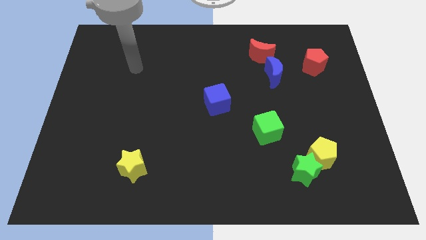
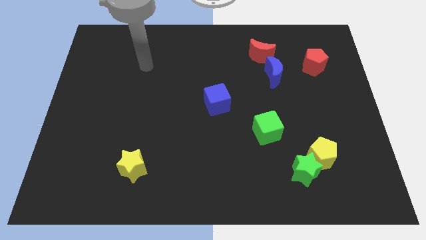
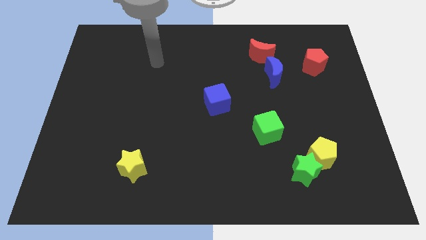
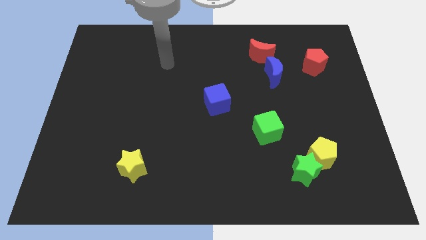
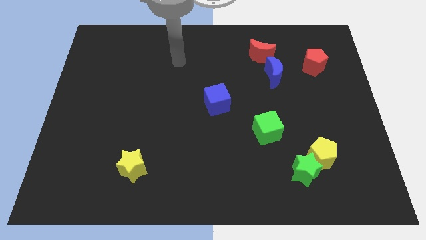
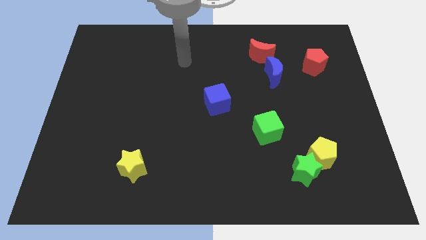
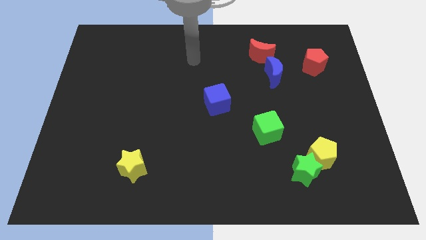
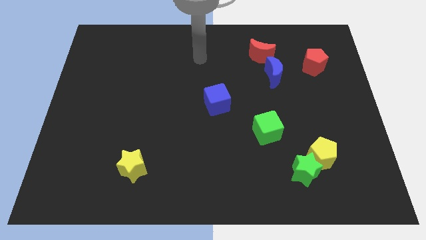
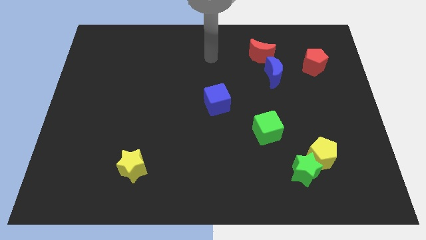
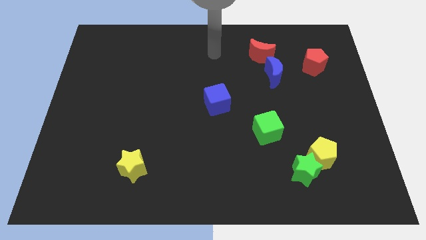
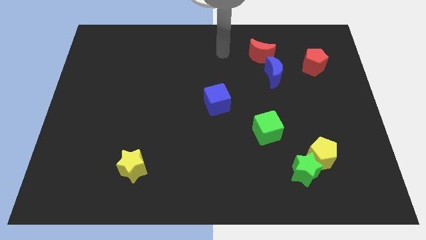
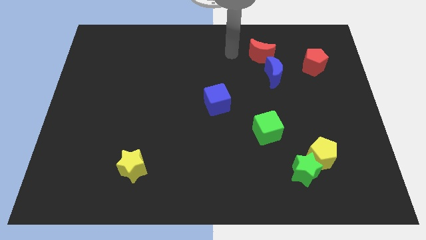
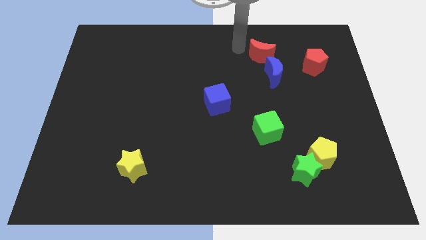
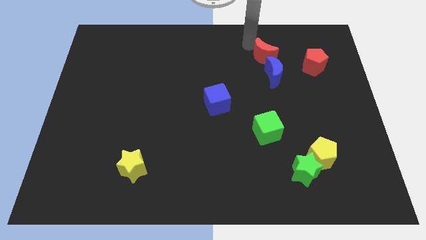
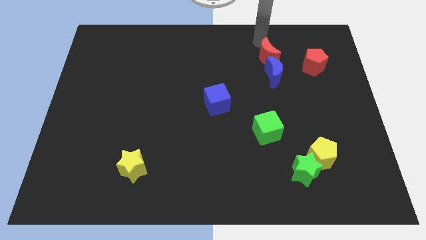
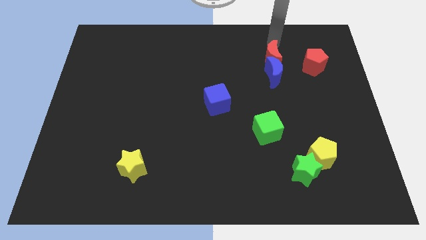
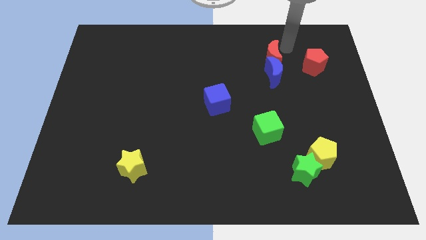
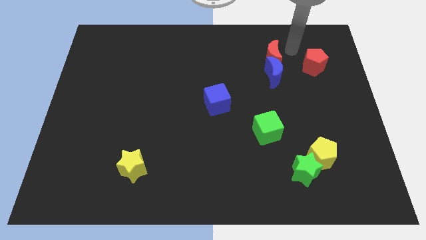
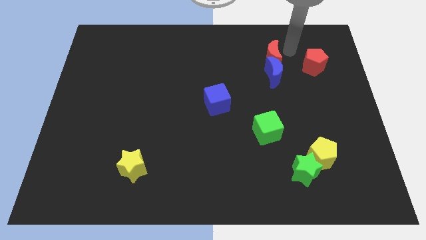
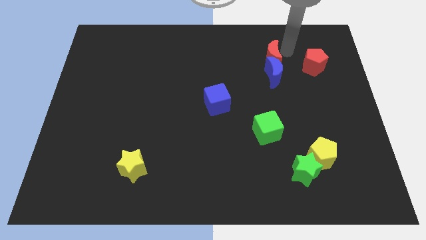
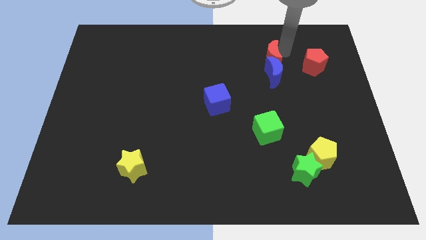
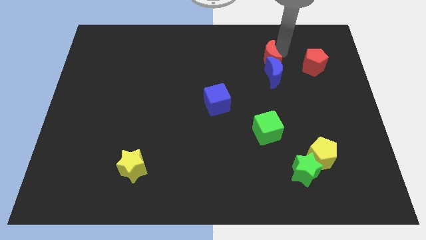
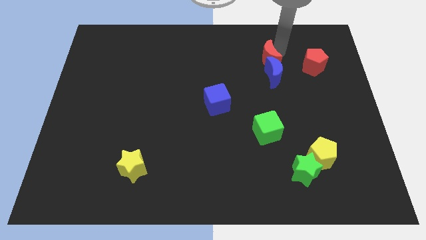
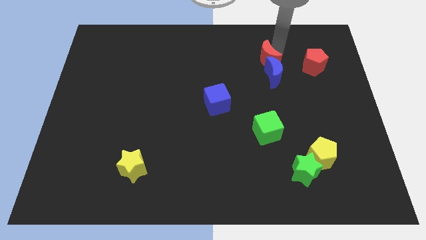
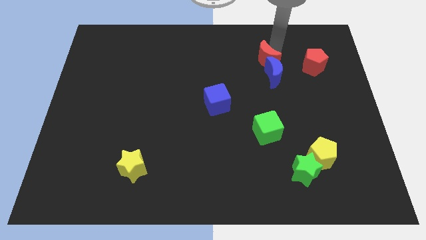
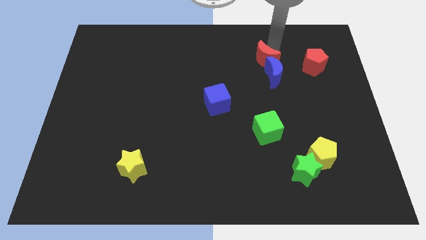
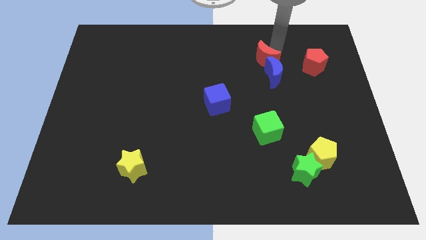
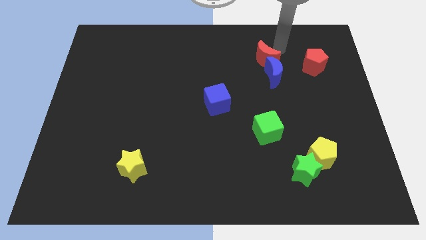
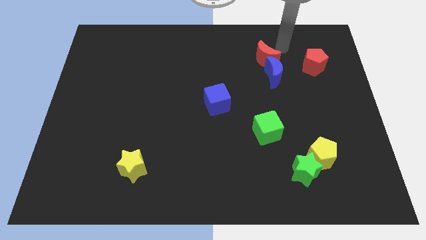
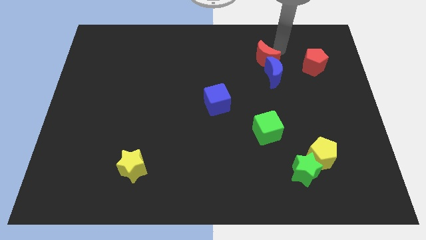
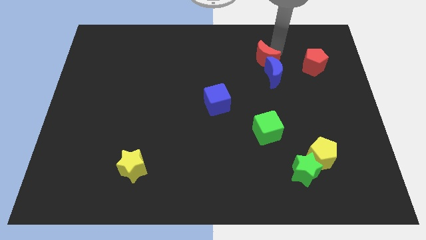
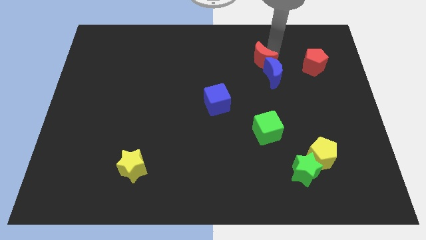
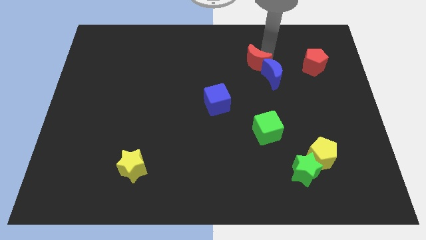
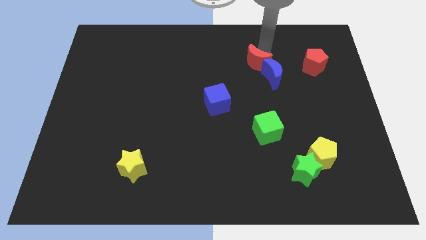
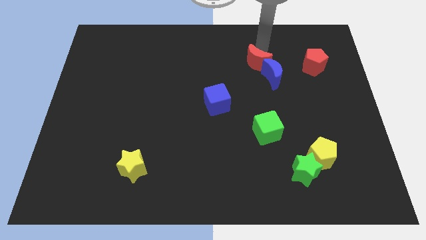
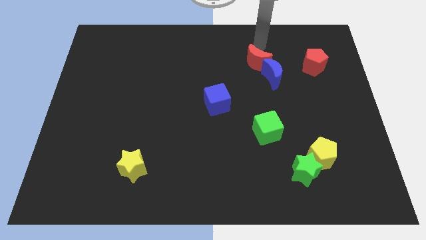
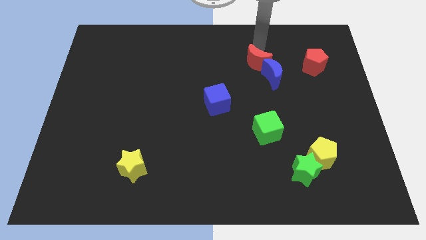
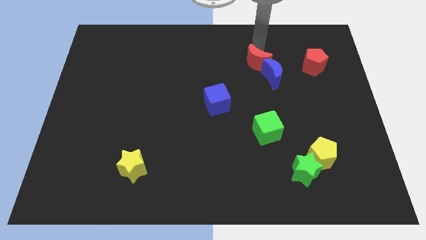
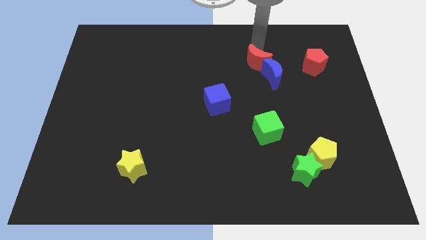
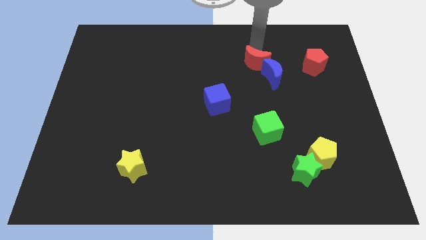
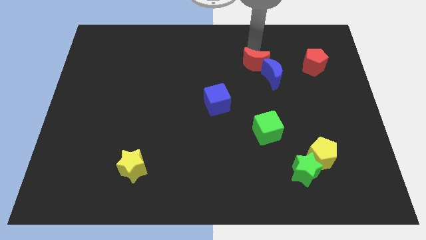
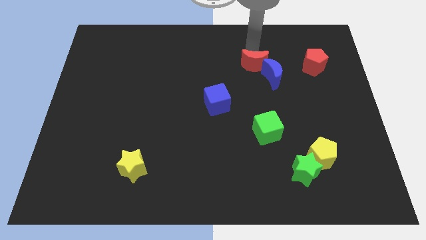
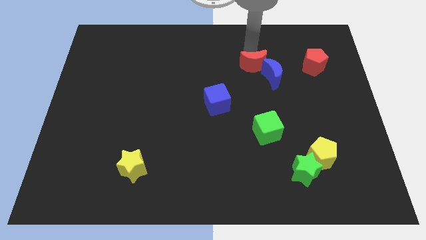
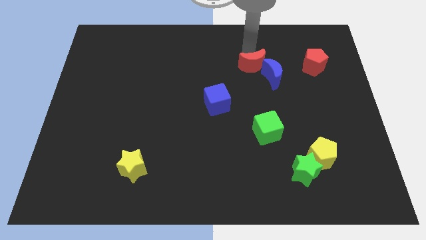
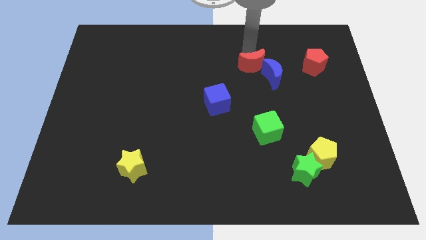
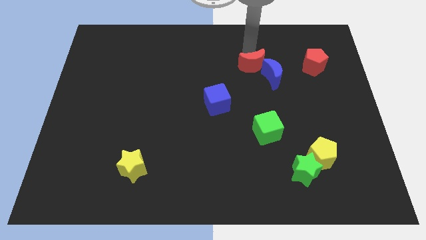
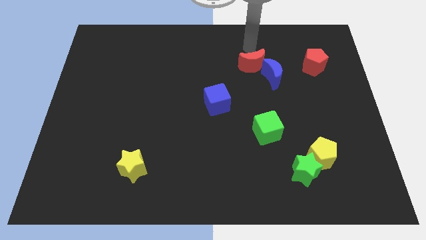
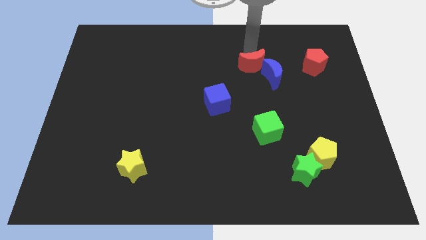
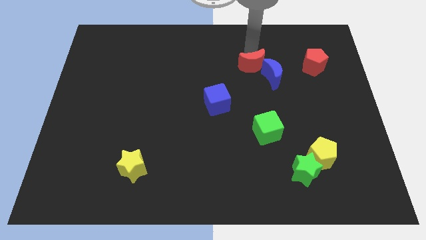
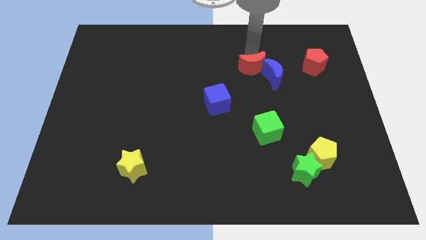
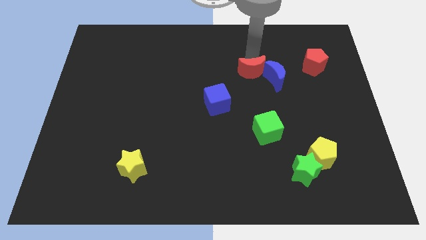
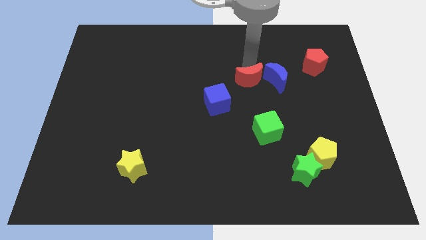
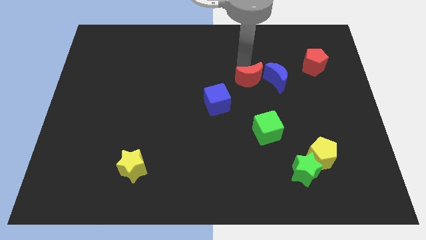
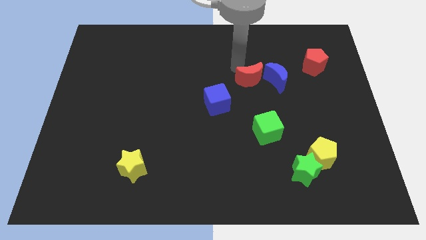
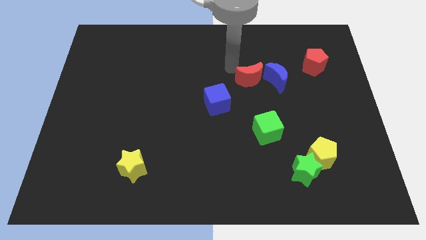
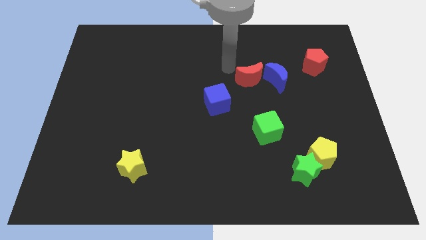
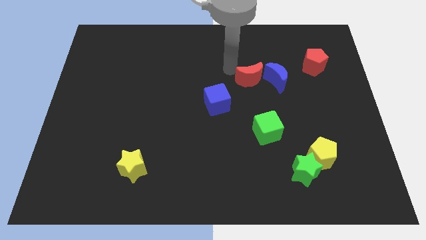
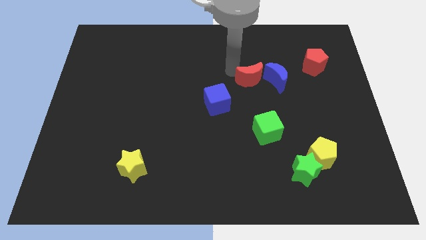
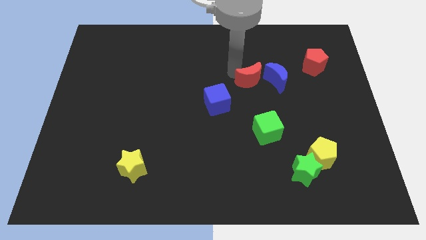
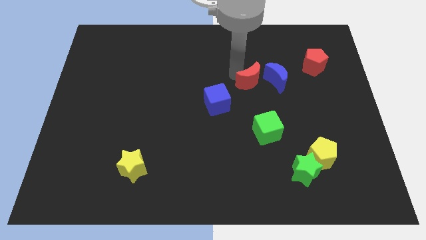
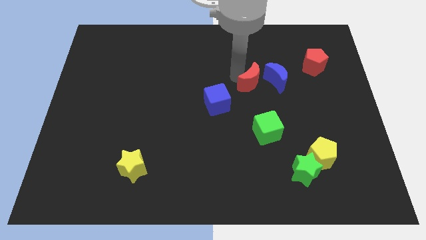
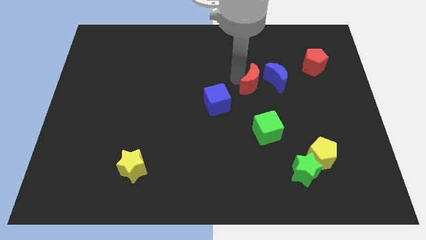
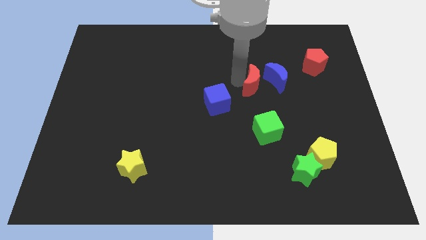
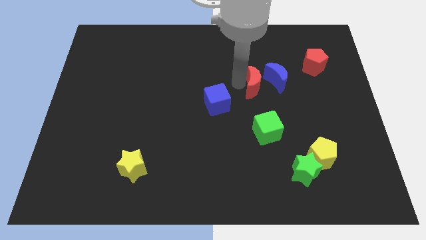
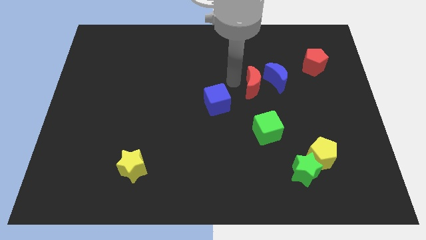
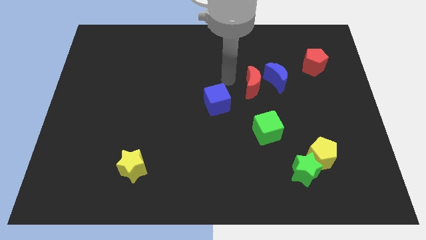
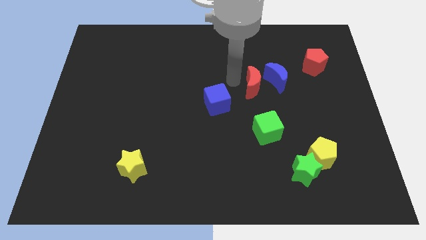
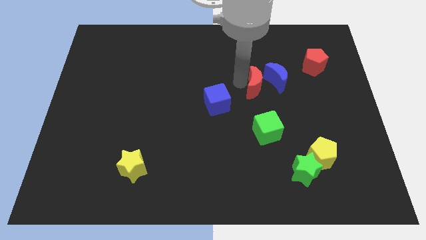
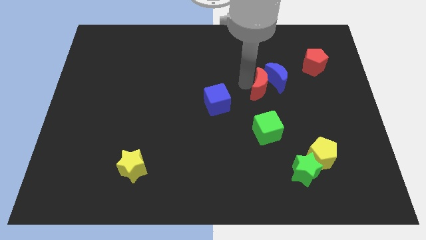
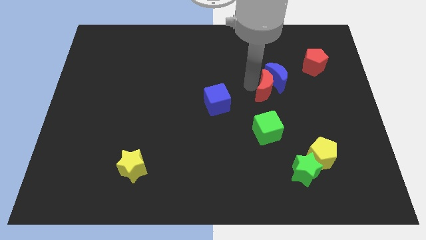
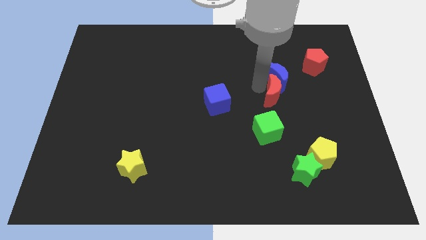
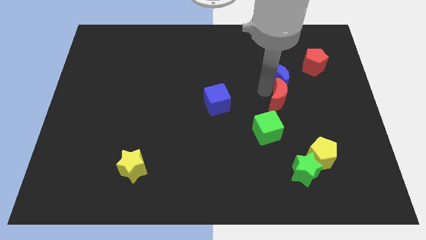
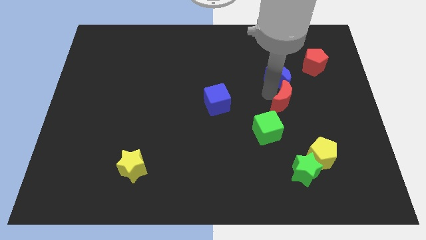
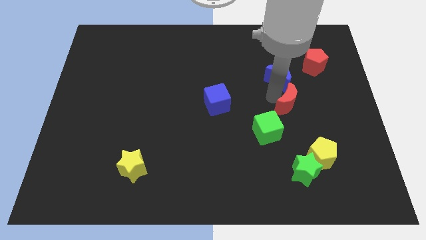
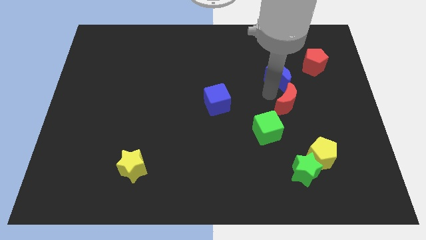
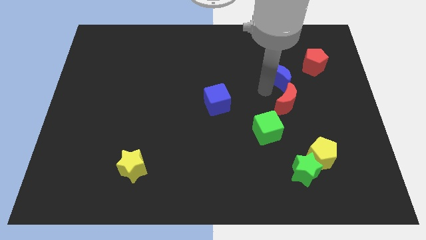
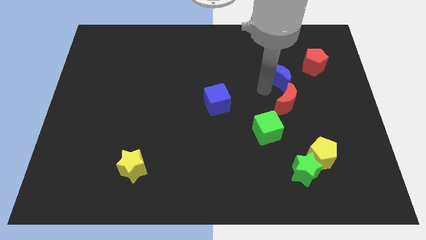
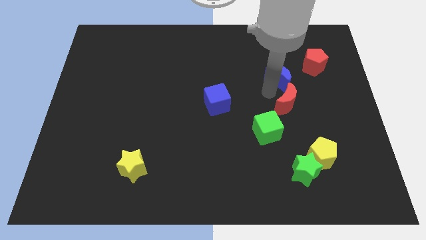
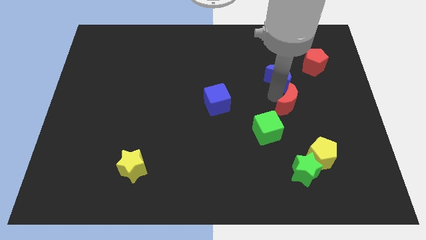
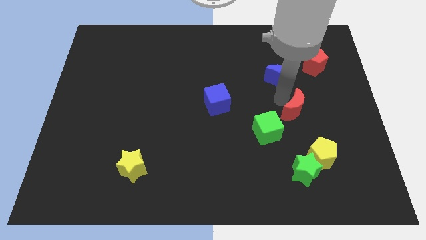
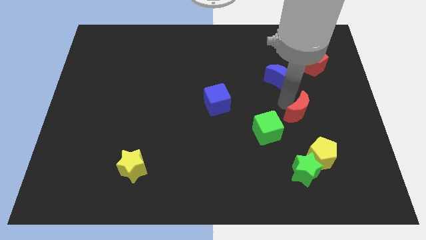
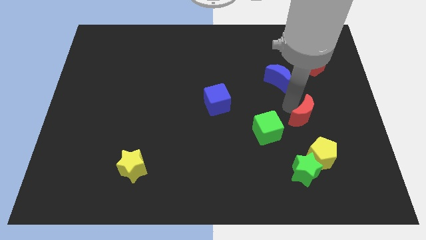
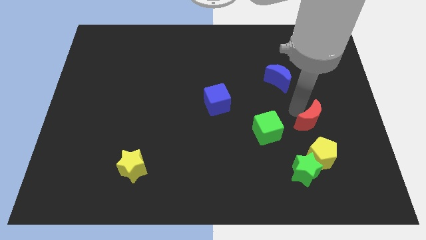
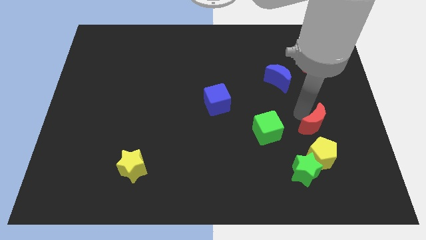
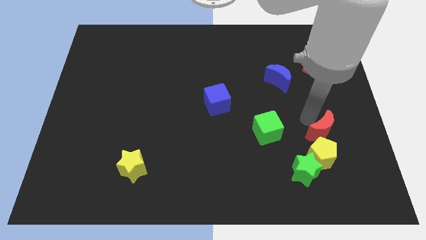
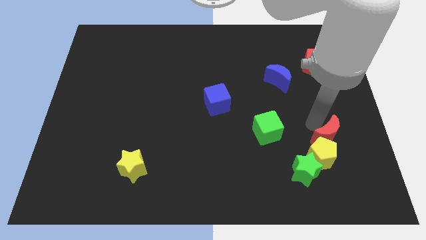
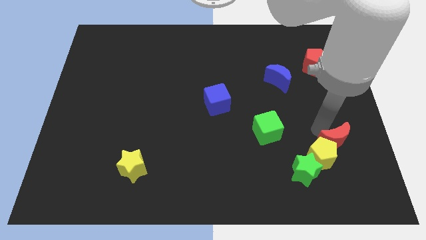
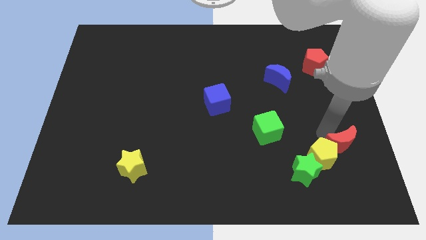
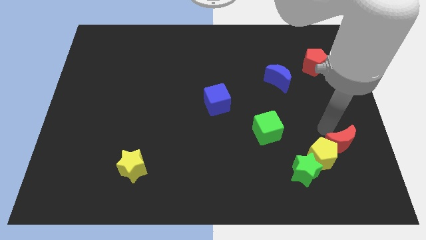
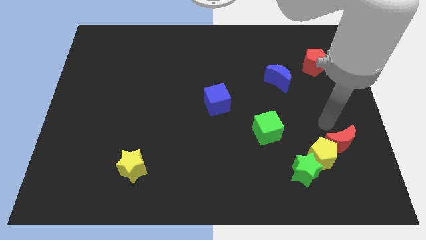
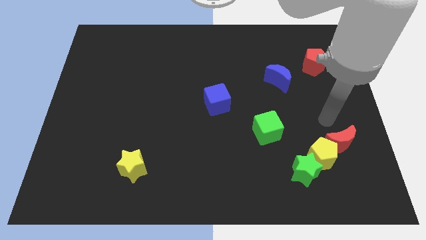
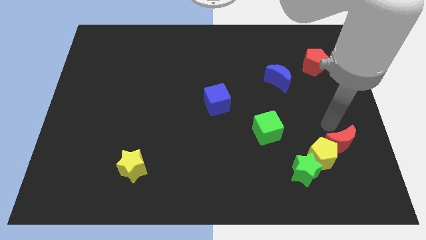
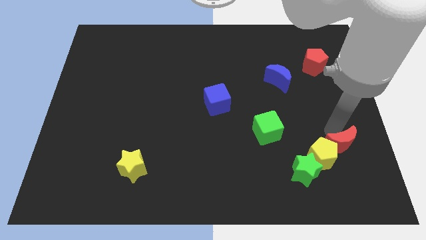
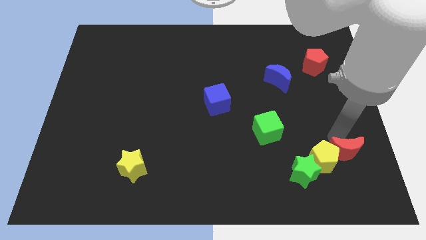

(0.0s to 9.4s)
put the red moon right of the green star
